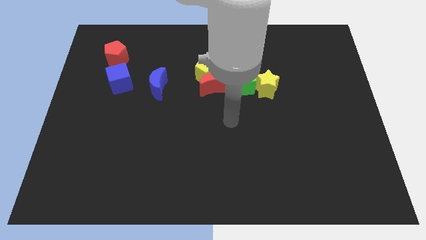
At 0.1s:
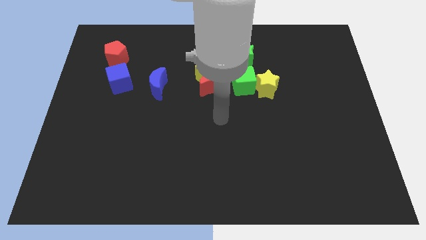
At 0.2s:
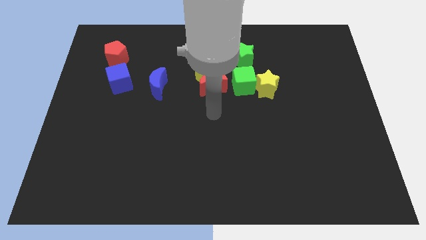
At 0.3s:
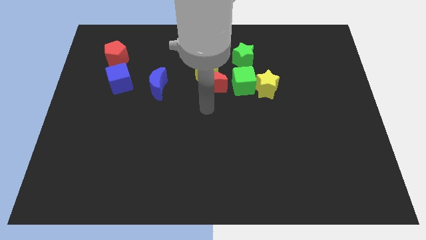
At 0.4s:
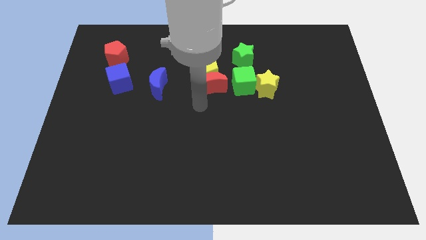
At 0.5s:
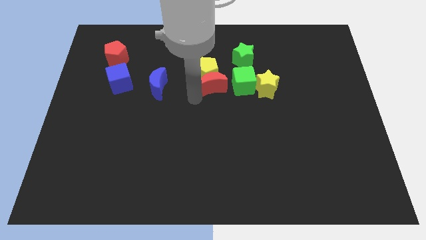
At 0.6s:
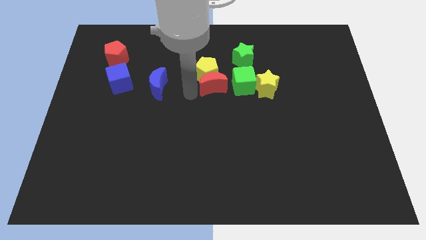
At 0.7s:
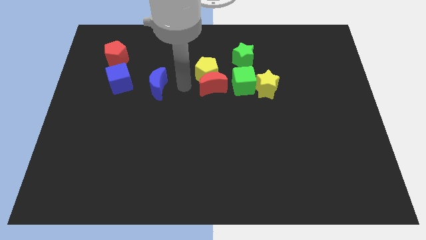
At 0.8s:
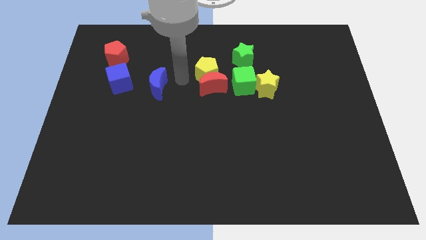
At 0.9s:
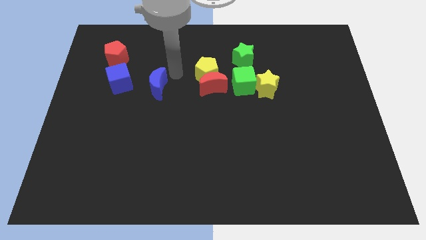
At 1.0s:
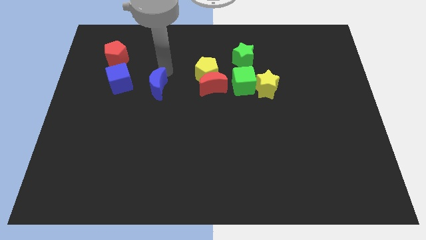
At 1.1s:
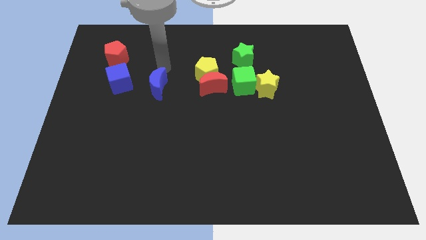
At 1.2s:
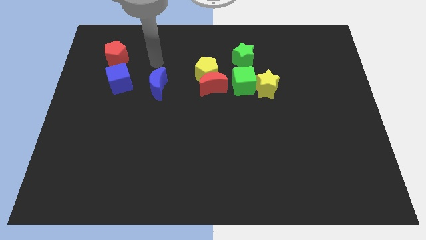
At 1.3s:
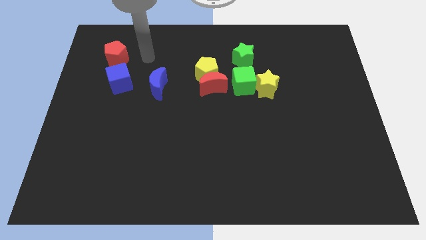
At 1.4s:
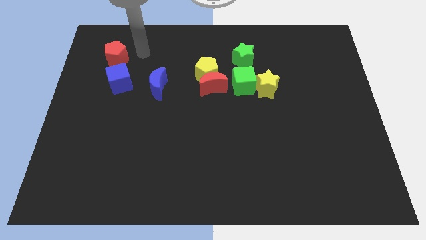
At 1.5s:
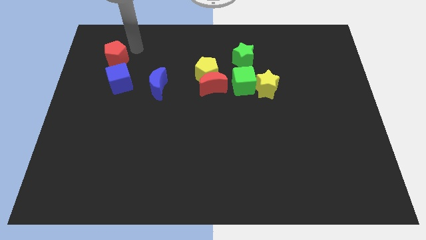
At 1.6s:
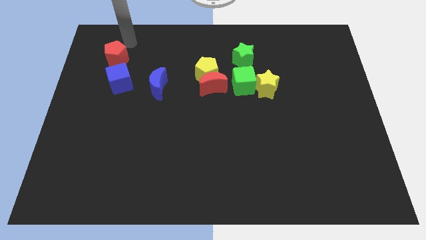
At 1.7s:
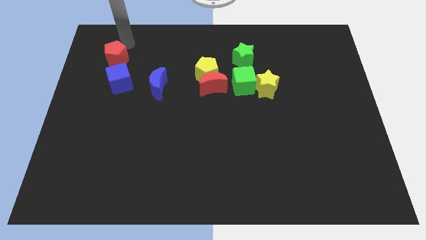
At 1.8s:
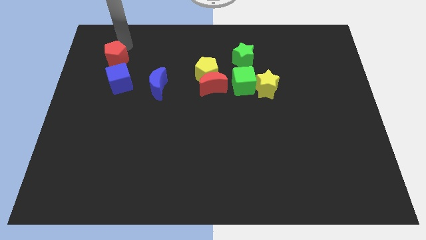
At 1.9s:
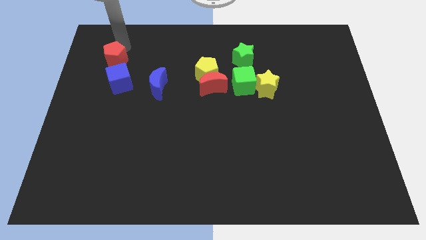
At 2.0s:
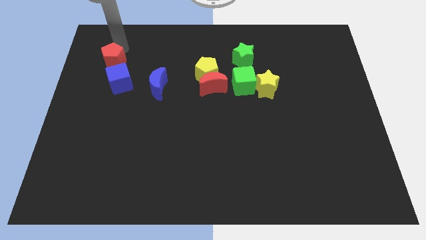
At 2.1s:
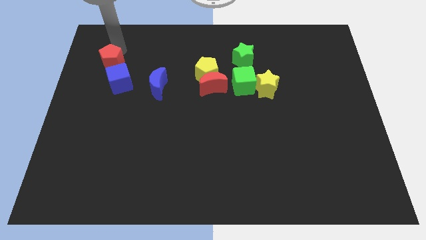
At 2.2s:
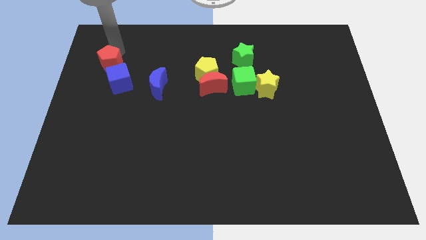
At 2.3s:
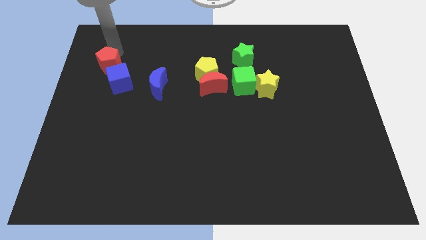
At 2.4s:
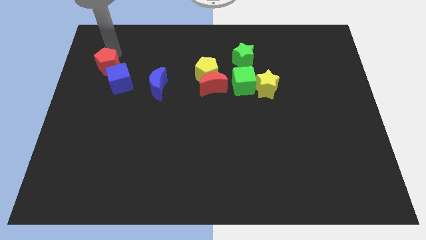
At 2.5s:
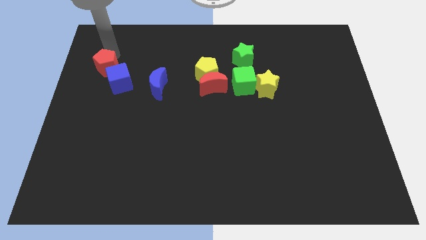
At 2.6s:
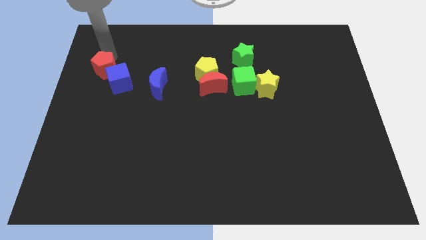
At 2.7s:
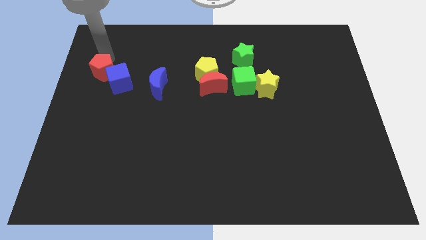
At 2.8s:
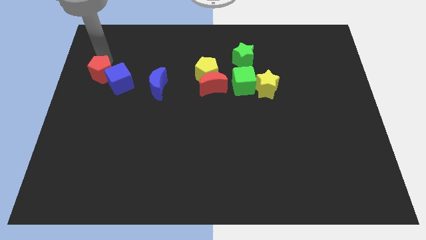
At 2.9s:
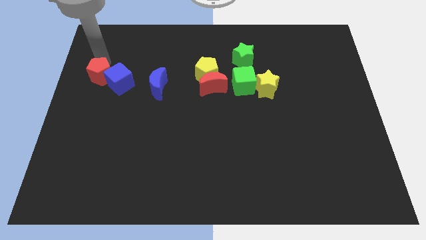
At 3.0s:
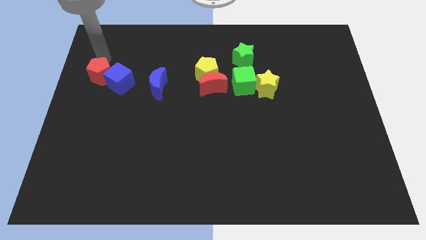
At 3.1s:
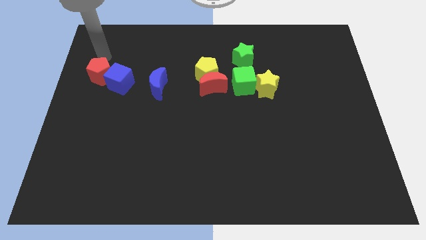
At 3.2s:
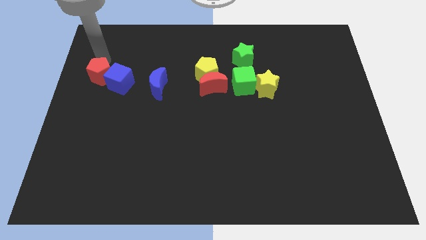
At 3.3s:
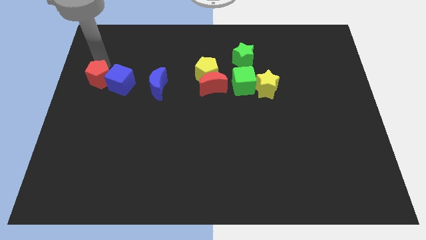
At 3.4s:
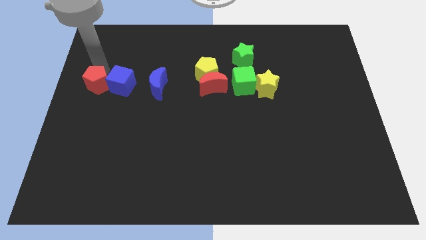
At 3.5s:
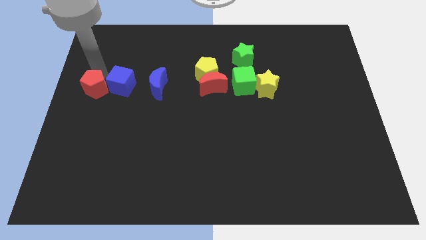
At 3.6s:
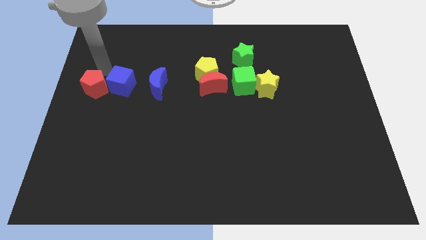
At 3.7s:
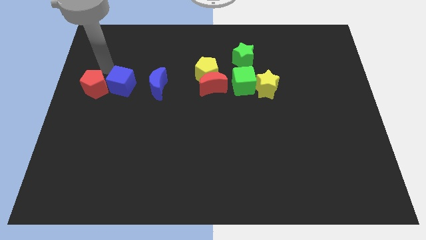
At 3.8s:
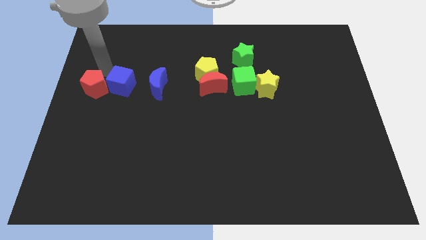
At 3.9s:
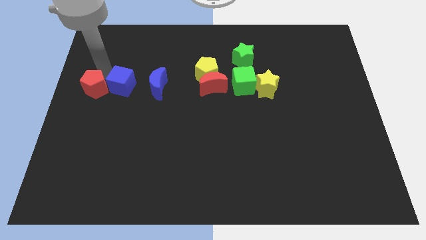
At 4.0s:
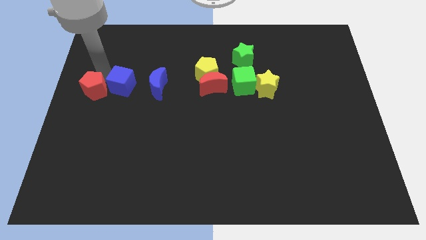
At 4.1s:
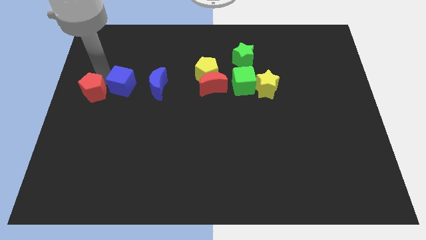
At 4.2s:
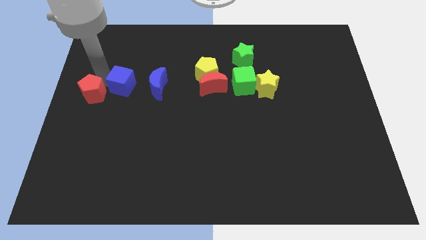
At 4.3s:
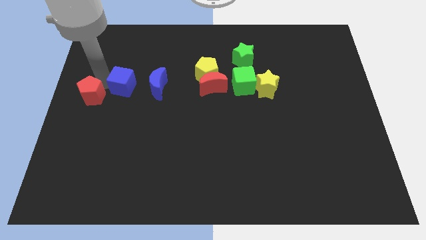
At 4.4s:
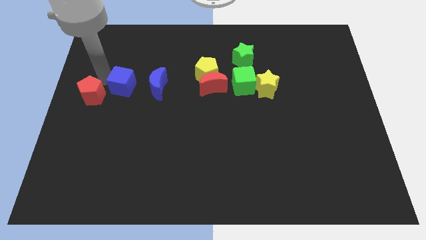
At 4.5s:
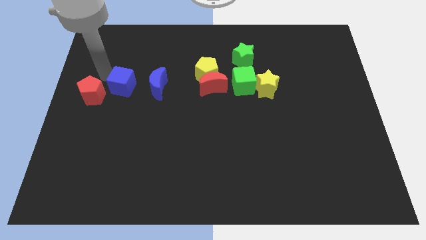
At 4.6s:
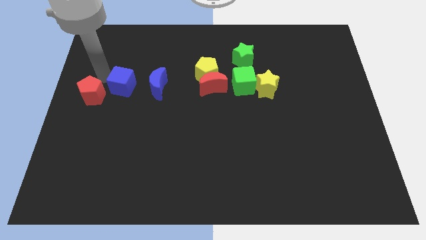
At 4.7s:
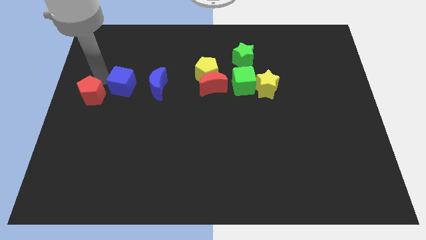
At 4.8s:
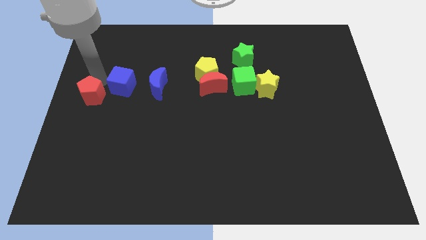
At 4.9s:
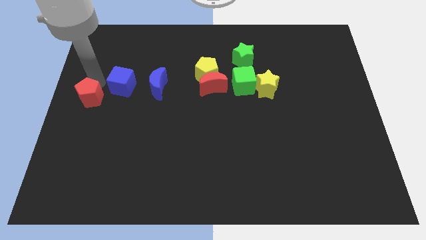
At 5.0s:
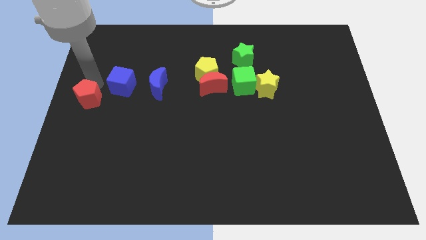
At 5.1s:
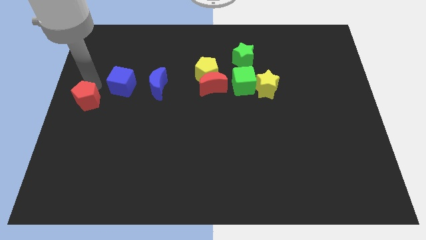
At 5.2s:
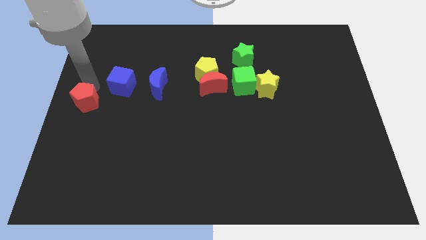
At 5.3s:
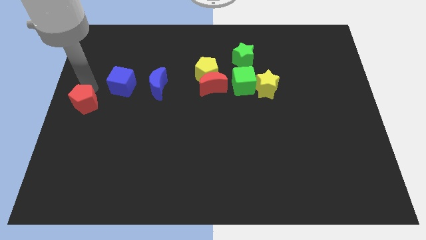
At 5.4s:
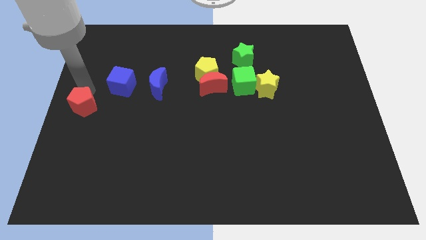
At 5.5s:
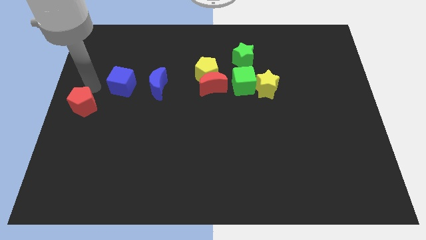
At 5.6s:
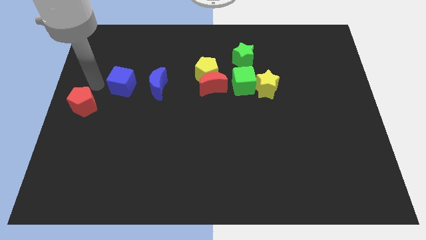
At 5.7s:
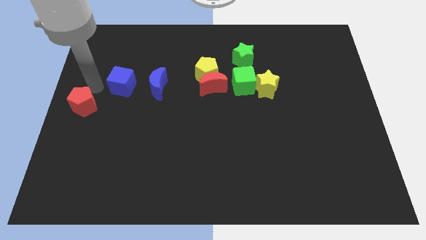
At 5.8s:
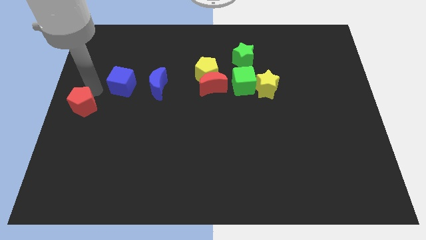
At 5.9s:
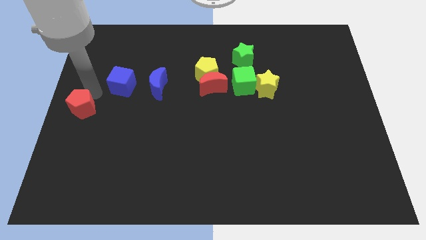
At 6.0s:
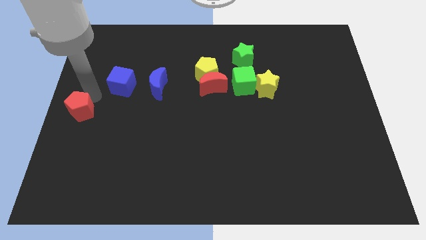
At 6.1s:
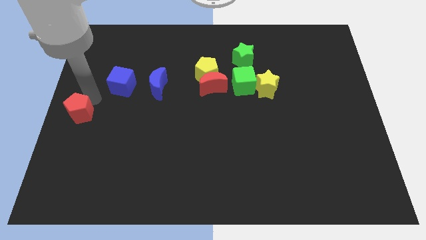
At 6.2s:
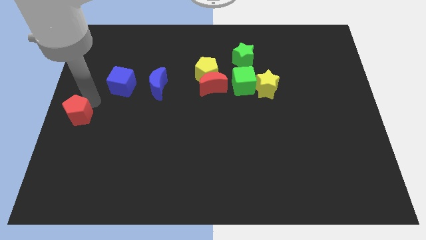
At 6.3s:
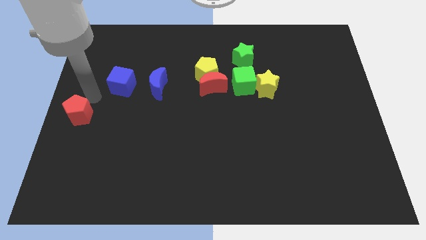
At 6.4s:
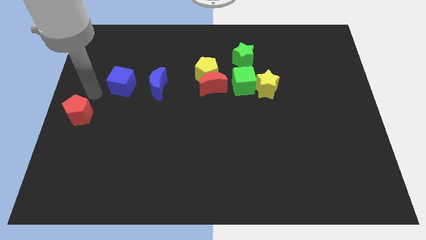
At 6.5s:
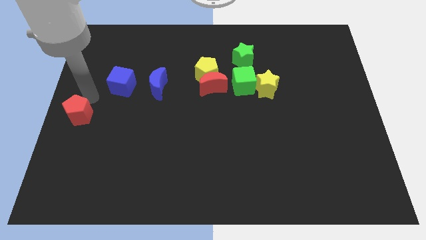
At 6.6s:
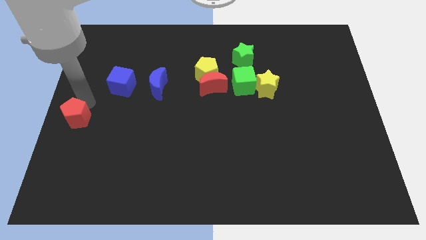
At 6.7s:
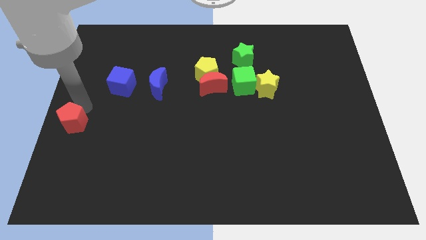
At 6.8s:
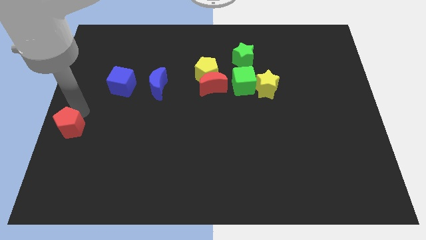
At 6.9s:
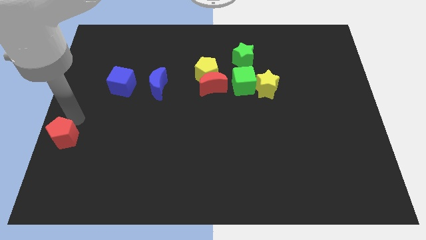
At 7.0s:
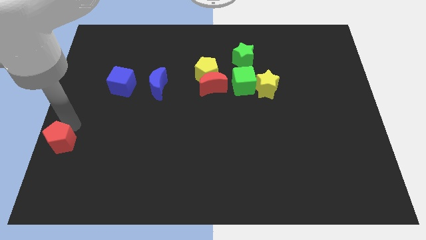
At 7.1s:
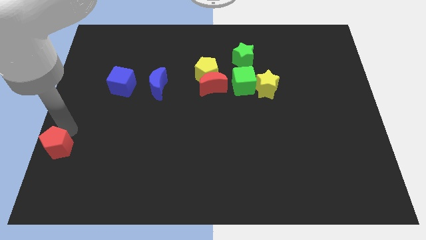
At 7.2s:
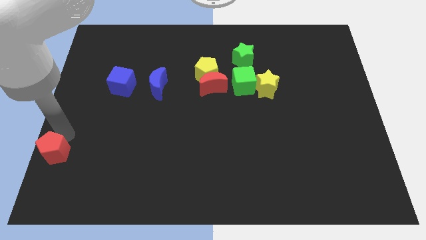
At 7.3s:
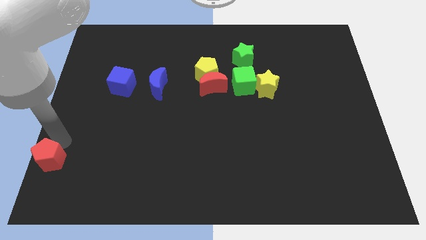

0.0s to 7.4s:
slide the red pentagon to the bottom left of the board
